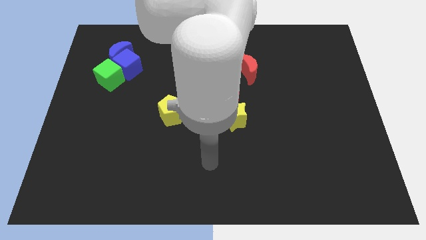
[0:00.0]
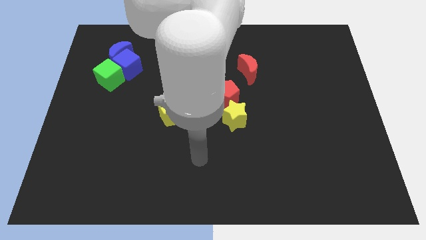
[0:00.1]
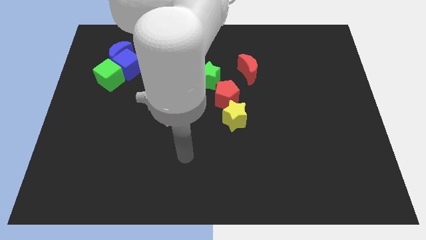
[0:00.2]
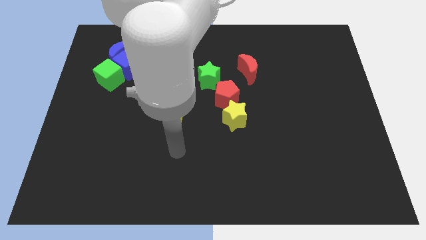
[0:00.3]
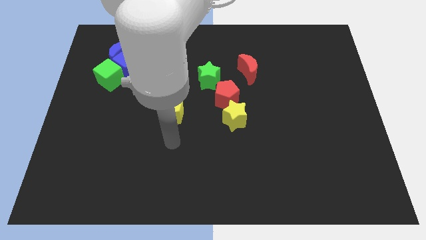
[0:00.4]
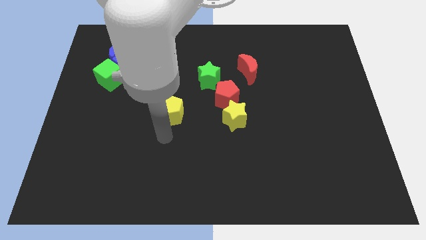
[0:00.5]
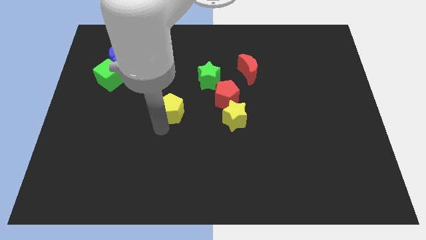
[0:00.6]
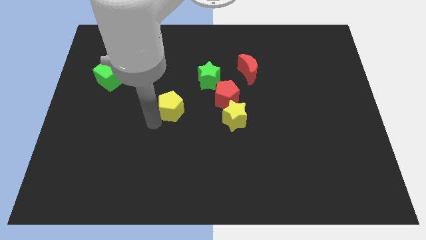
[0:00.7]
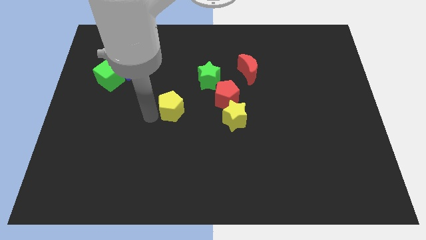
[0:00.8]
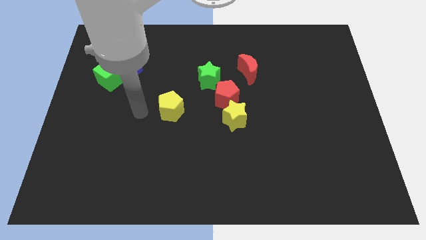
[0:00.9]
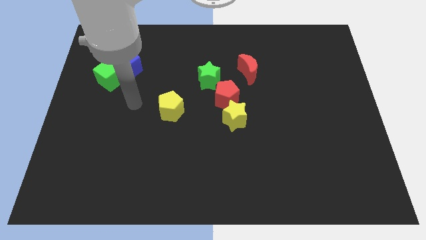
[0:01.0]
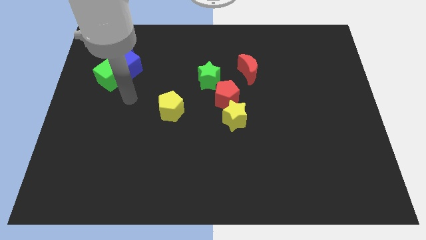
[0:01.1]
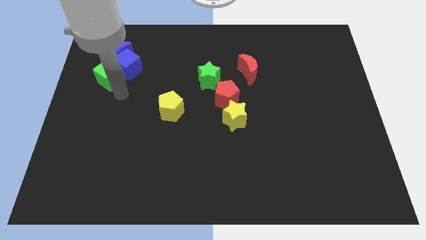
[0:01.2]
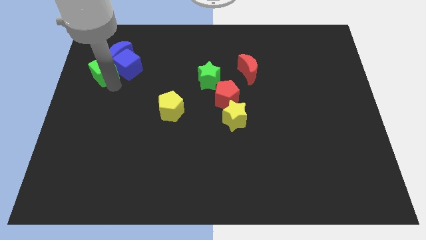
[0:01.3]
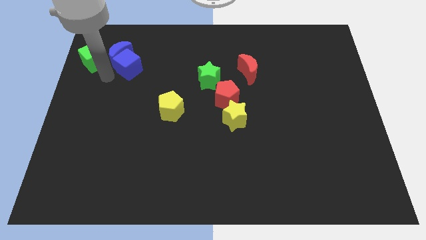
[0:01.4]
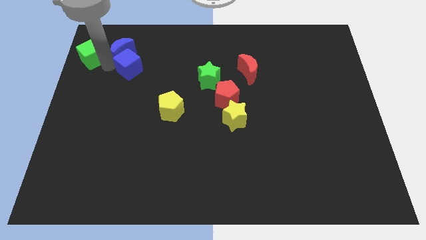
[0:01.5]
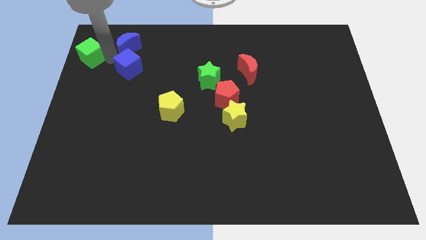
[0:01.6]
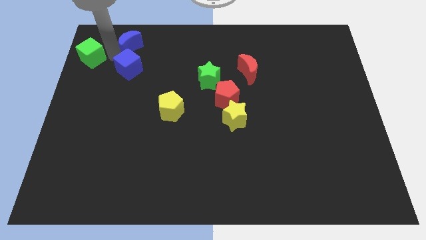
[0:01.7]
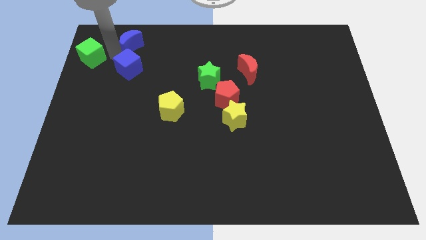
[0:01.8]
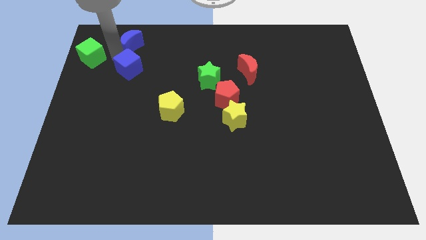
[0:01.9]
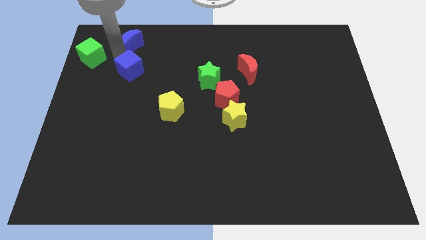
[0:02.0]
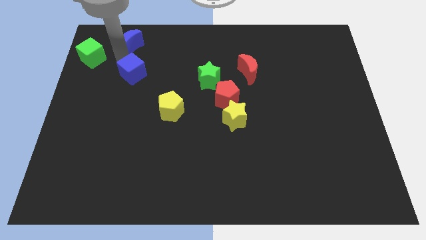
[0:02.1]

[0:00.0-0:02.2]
move the blue cube away from the blue moon and green cube

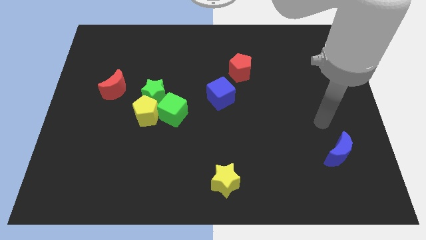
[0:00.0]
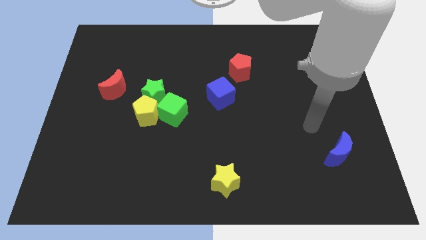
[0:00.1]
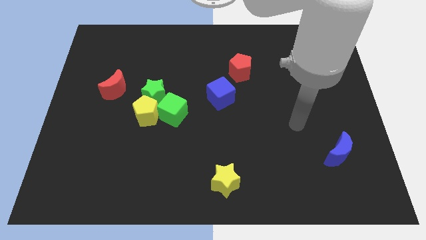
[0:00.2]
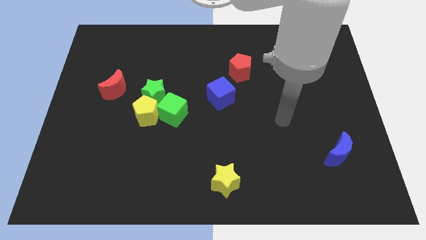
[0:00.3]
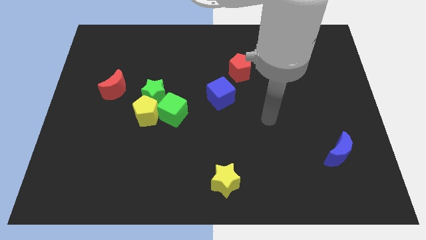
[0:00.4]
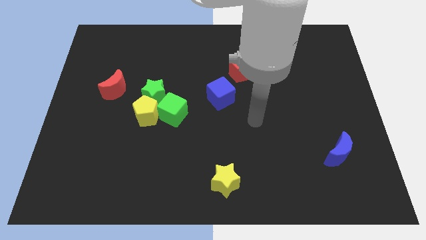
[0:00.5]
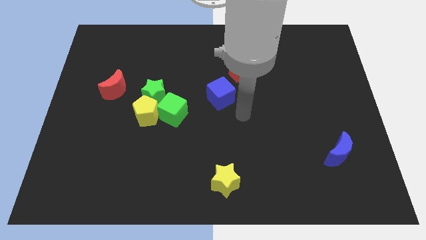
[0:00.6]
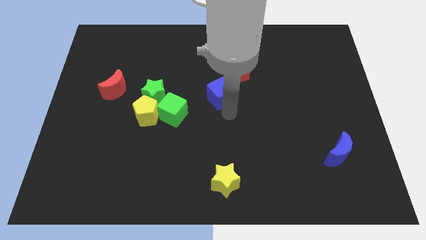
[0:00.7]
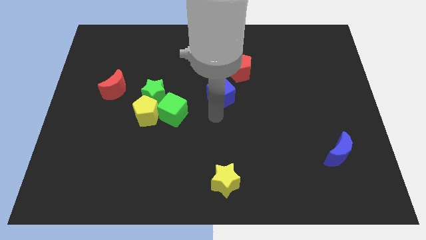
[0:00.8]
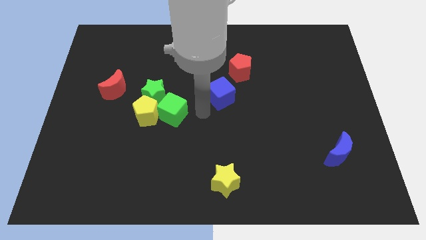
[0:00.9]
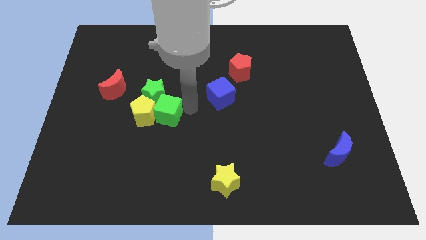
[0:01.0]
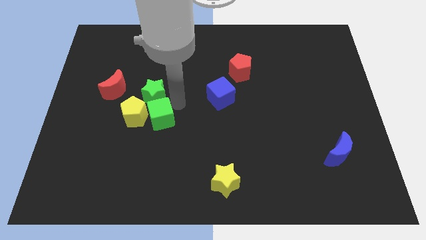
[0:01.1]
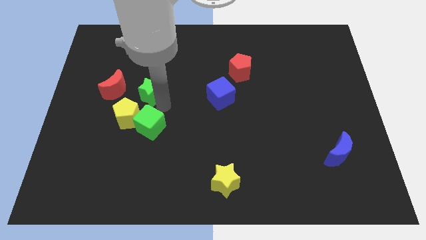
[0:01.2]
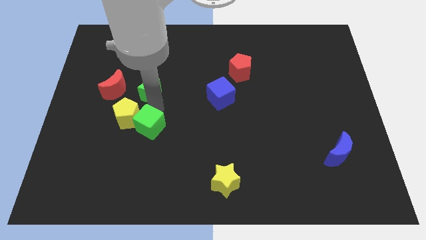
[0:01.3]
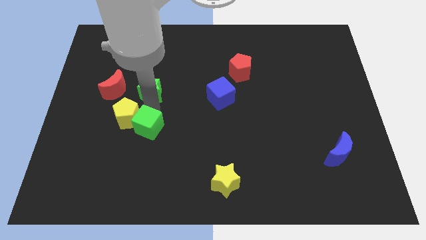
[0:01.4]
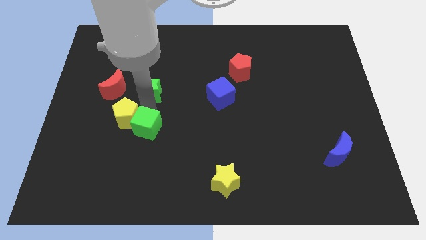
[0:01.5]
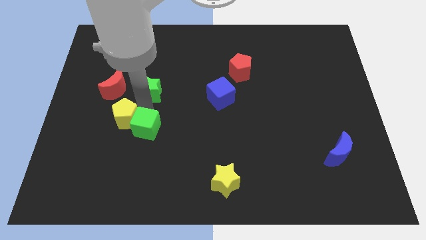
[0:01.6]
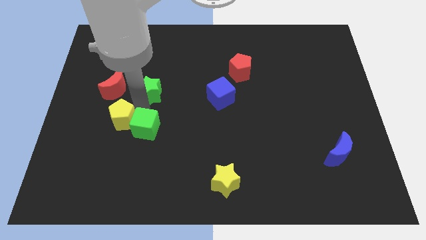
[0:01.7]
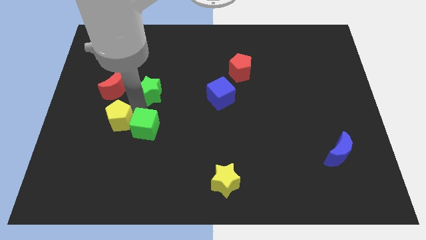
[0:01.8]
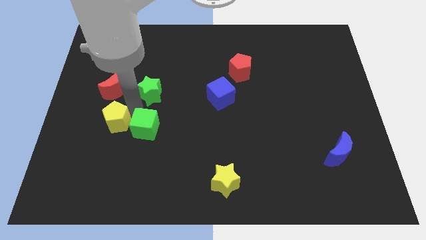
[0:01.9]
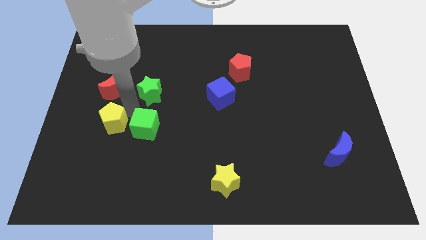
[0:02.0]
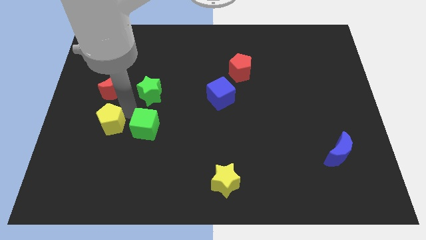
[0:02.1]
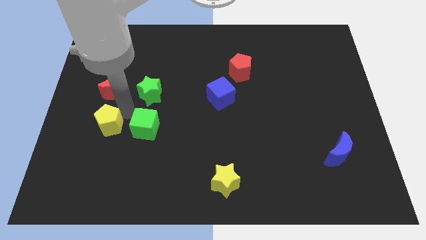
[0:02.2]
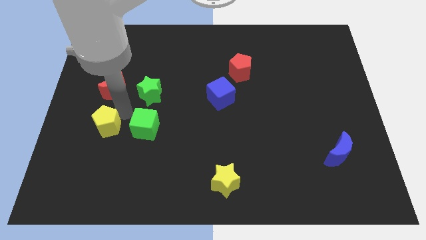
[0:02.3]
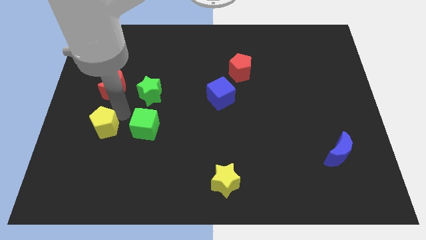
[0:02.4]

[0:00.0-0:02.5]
separate the yellow pentagon from the green star and green cube

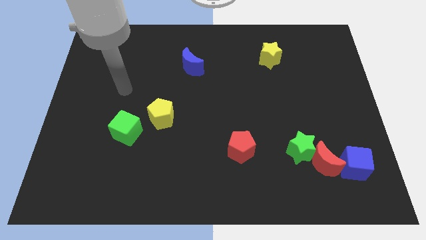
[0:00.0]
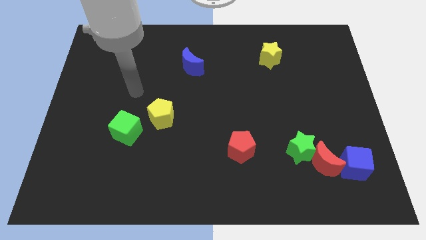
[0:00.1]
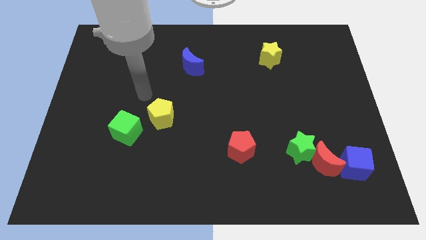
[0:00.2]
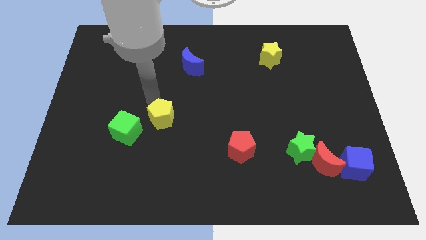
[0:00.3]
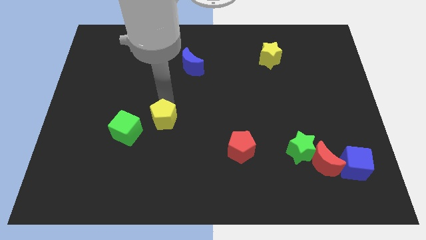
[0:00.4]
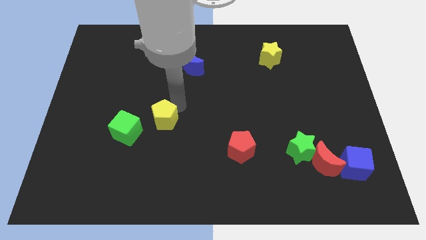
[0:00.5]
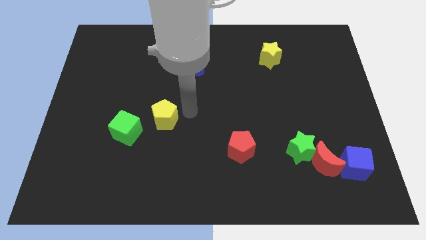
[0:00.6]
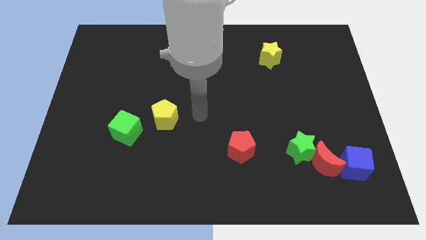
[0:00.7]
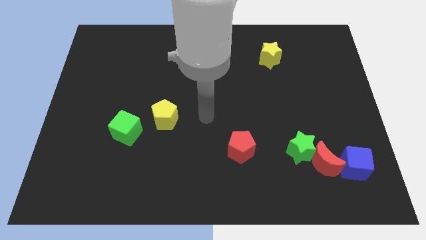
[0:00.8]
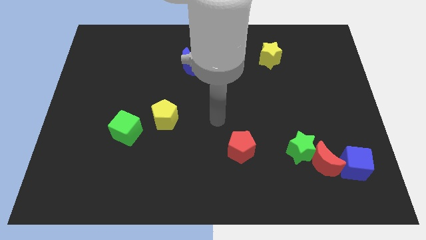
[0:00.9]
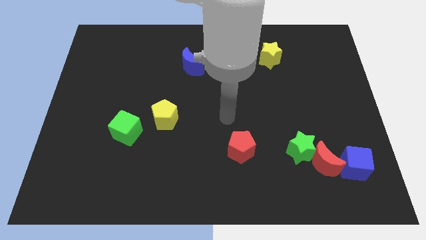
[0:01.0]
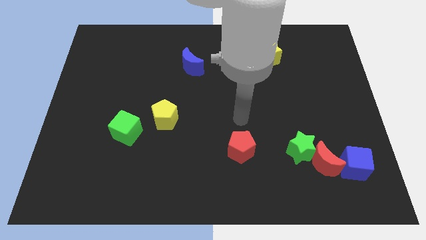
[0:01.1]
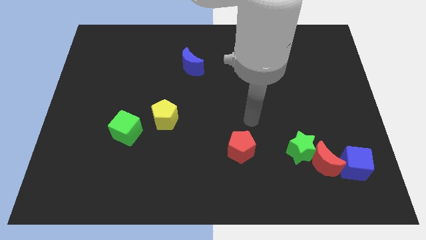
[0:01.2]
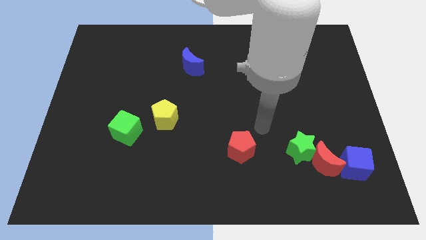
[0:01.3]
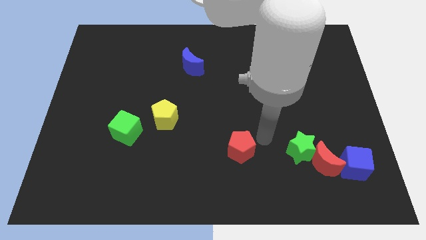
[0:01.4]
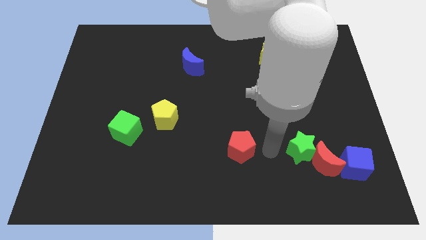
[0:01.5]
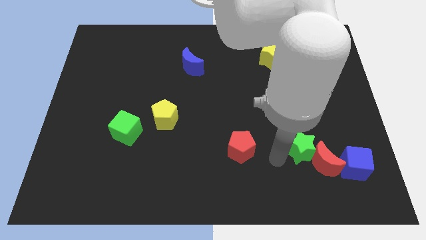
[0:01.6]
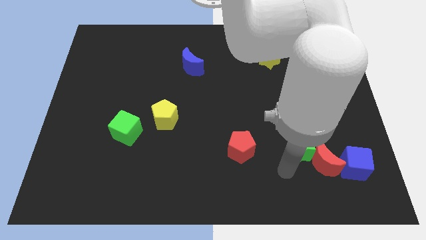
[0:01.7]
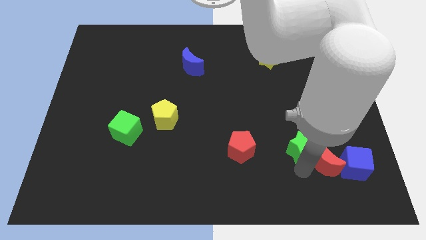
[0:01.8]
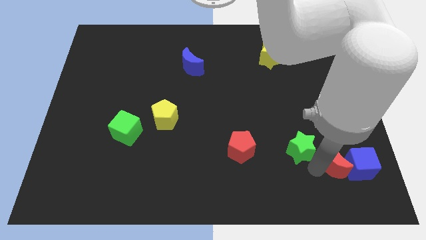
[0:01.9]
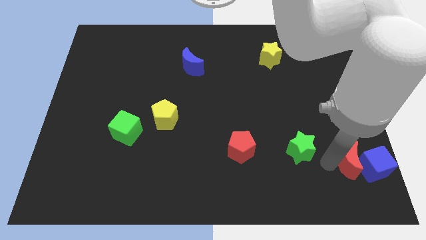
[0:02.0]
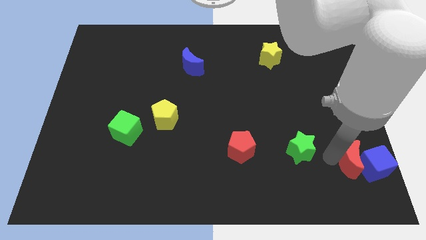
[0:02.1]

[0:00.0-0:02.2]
separate the green star from the red moon

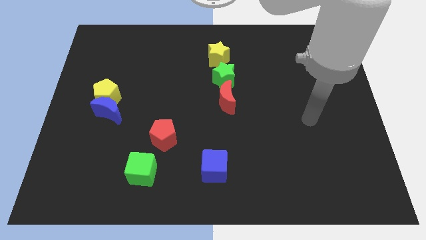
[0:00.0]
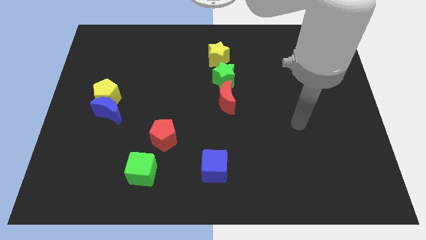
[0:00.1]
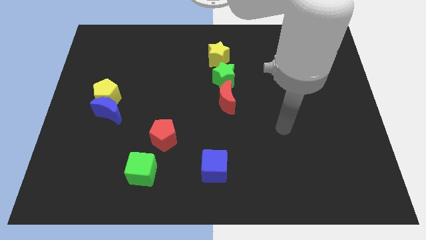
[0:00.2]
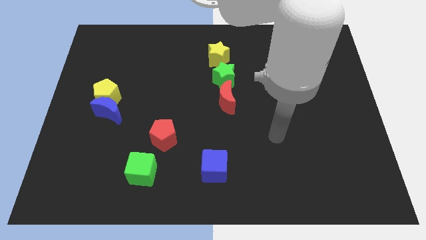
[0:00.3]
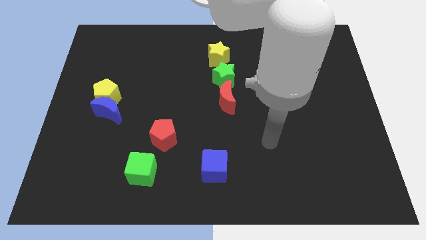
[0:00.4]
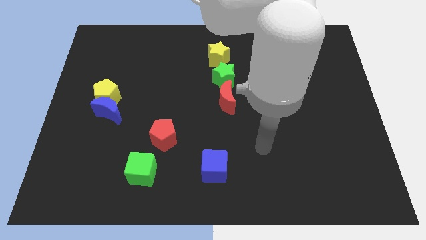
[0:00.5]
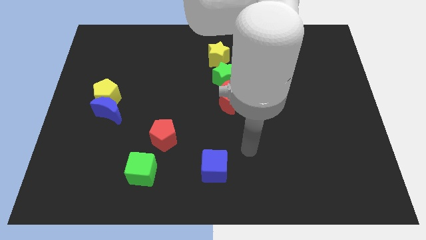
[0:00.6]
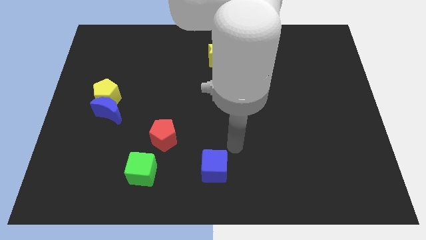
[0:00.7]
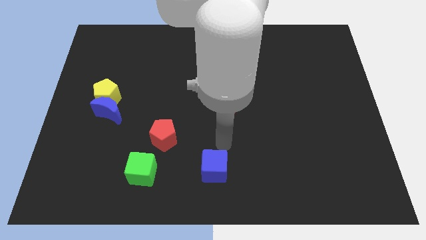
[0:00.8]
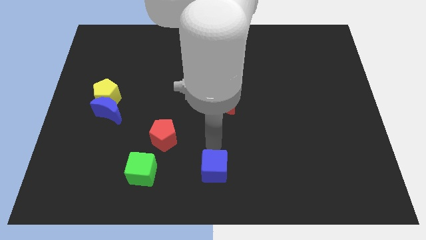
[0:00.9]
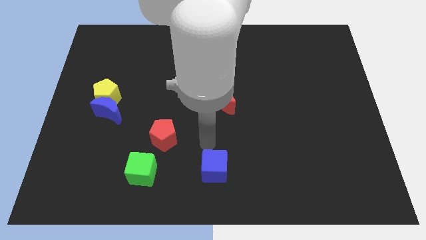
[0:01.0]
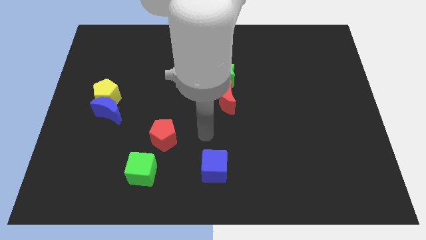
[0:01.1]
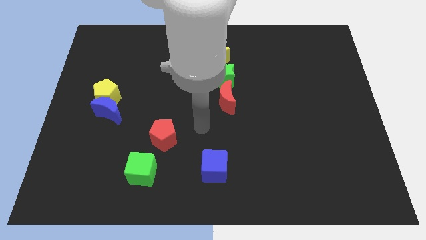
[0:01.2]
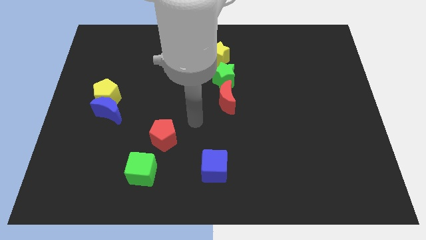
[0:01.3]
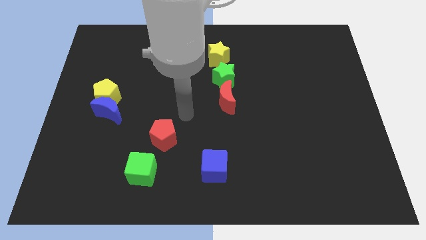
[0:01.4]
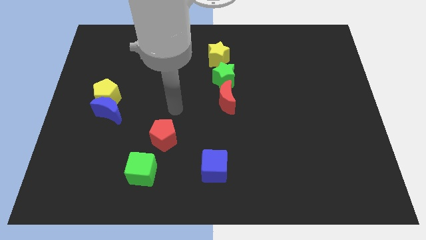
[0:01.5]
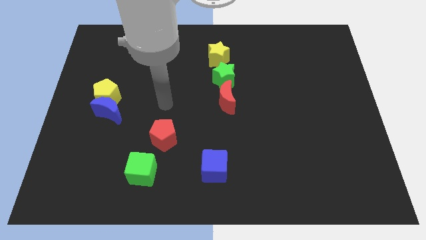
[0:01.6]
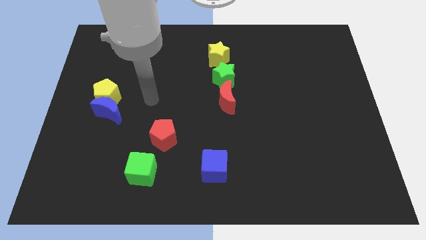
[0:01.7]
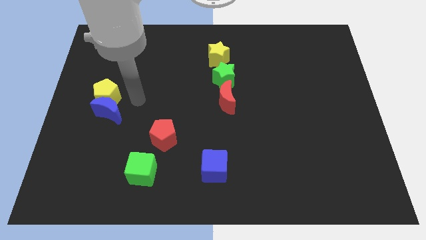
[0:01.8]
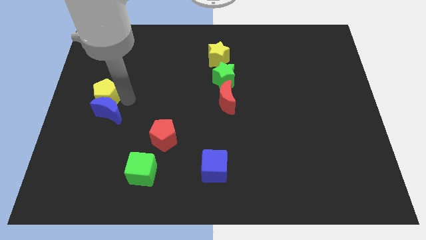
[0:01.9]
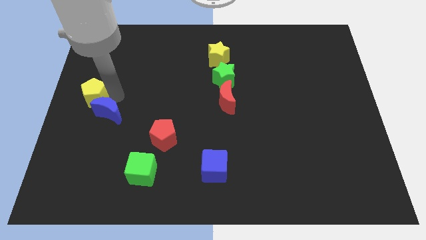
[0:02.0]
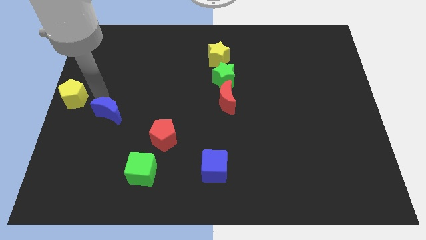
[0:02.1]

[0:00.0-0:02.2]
pull the blue moon apart from the yellow pentagon
